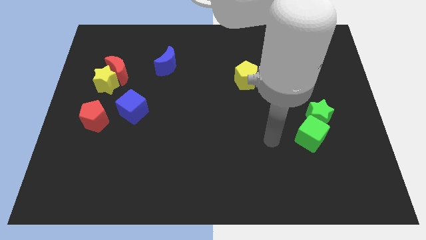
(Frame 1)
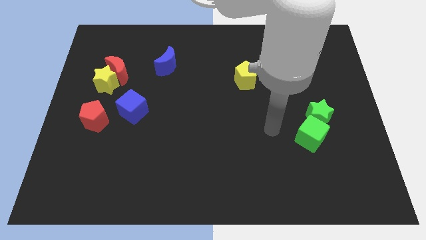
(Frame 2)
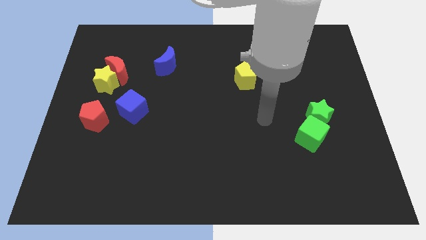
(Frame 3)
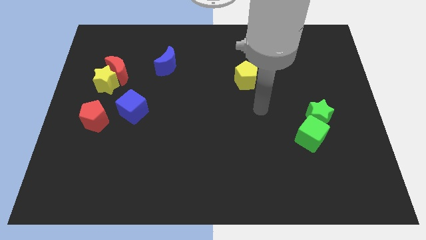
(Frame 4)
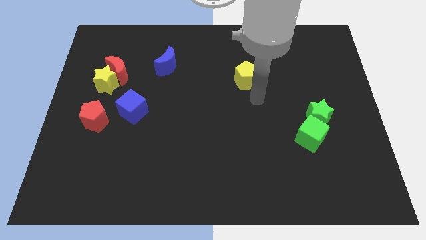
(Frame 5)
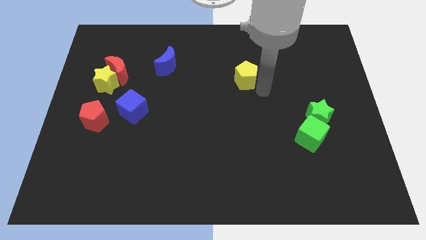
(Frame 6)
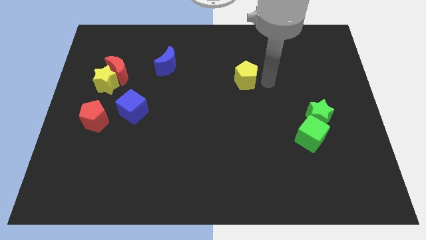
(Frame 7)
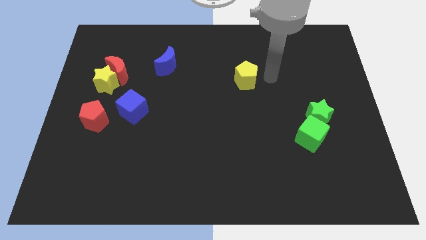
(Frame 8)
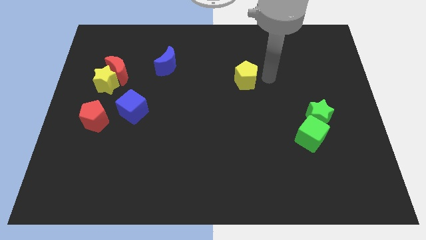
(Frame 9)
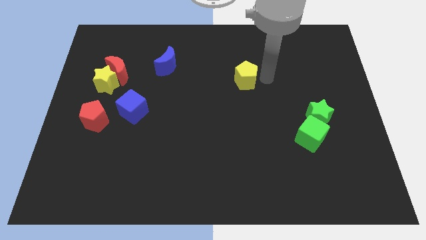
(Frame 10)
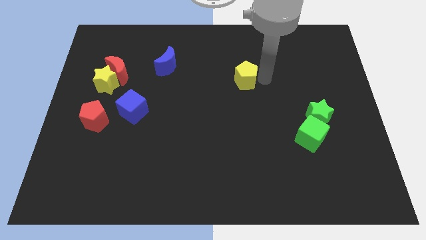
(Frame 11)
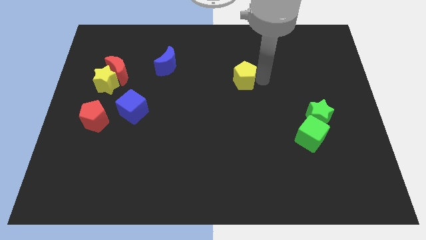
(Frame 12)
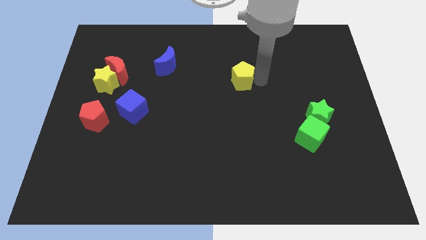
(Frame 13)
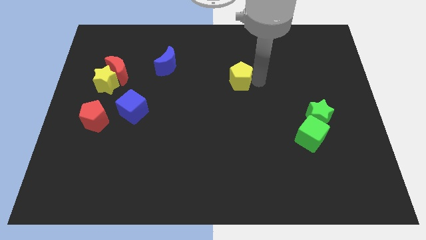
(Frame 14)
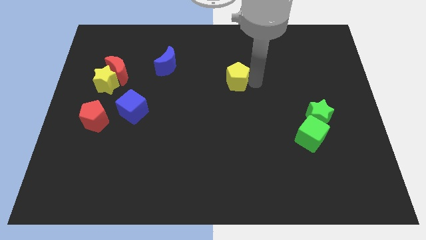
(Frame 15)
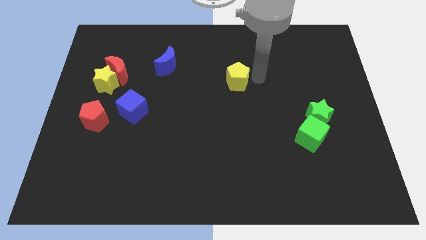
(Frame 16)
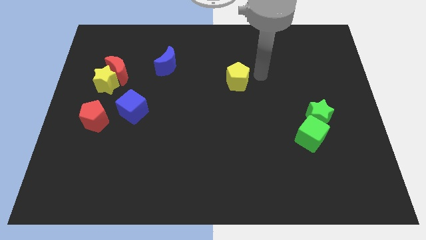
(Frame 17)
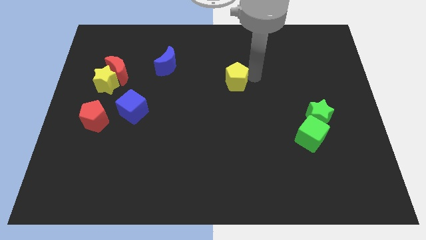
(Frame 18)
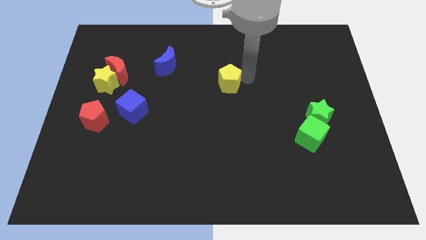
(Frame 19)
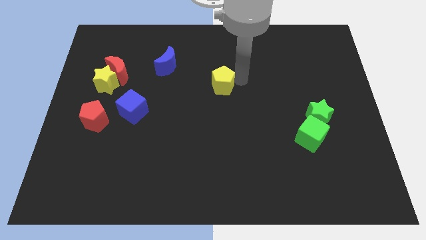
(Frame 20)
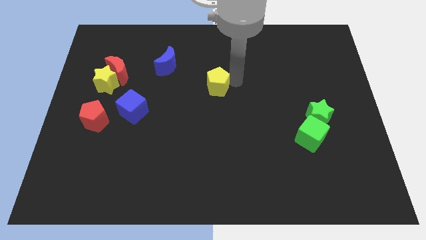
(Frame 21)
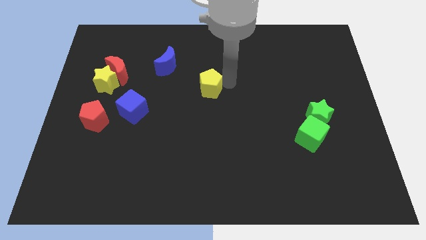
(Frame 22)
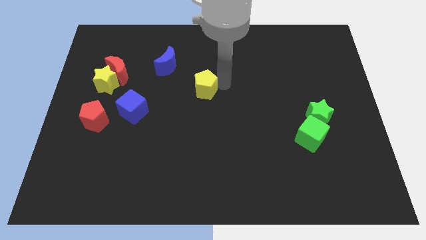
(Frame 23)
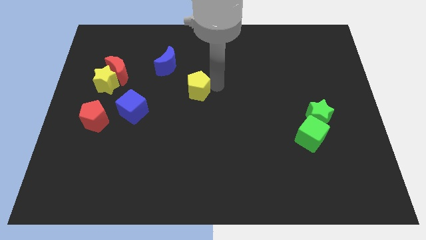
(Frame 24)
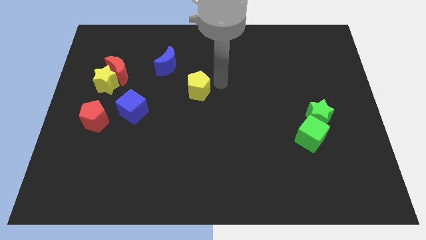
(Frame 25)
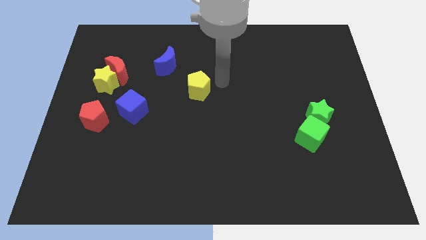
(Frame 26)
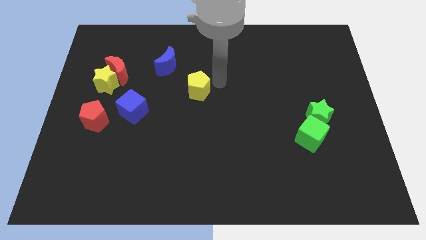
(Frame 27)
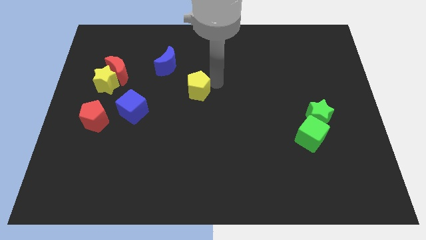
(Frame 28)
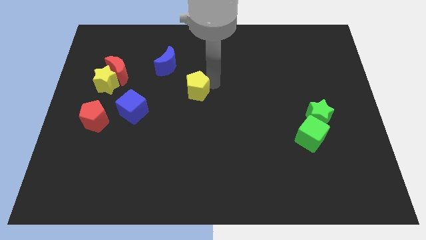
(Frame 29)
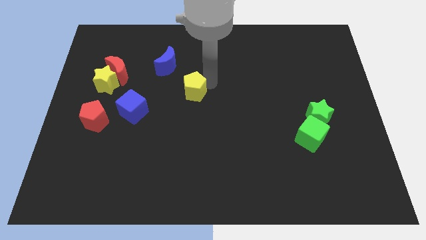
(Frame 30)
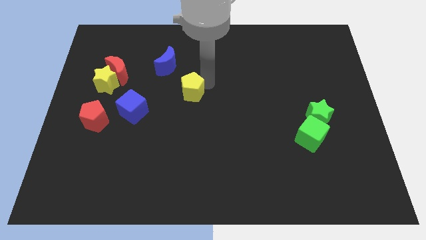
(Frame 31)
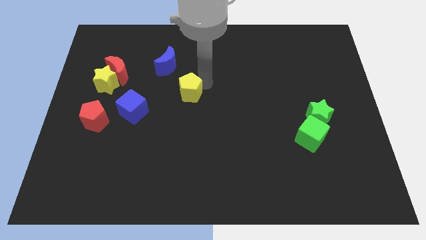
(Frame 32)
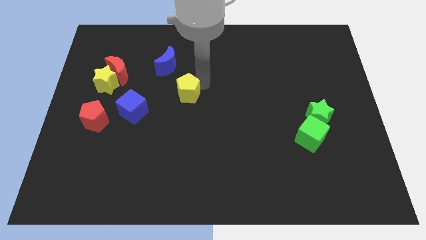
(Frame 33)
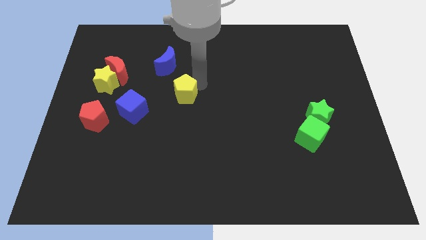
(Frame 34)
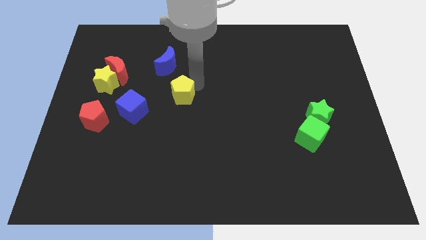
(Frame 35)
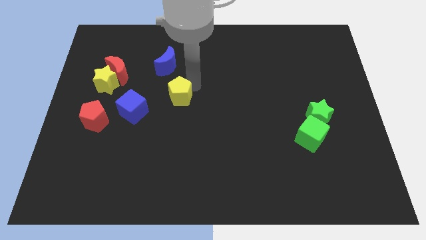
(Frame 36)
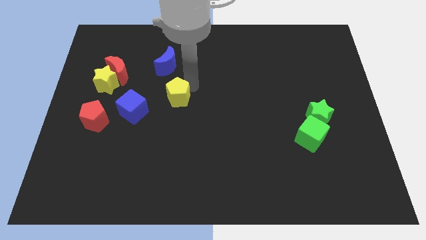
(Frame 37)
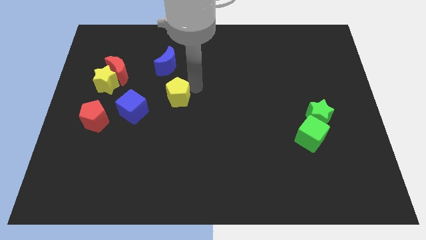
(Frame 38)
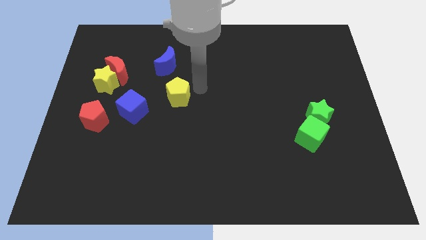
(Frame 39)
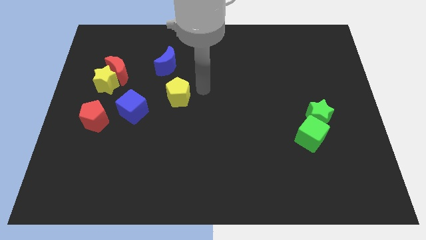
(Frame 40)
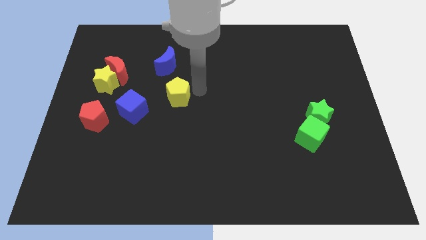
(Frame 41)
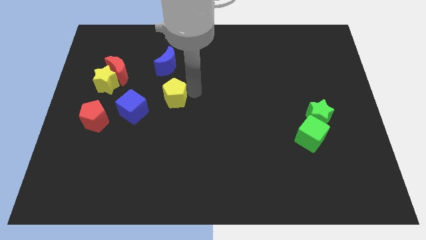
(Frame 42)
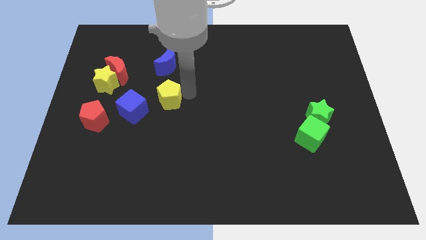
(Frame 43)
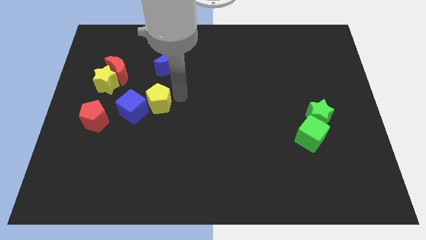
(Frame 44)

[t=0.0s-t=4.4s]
put the yellow pentagon next to the blue cube

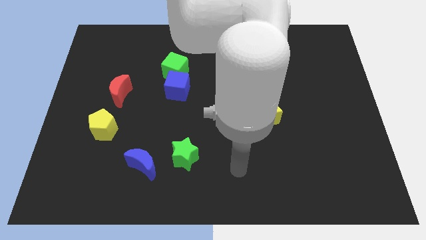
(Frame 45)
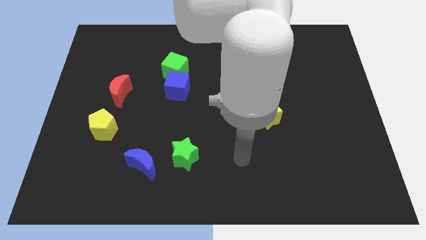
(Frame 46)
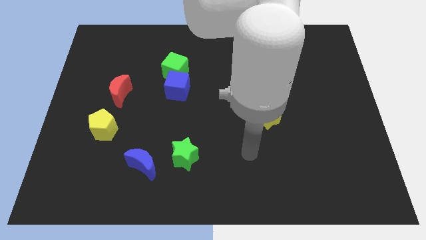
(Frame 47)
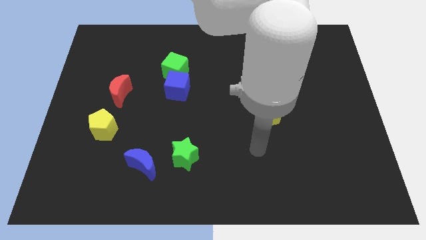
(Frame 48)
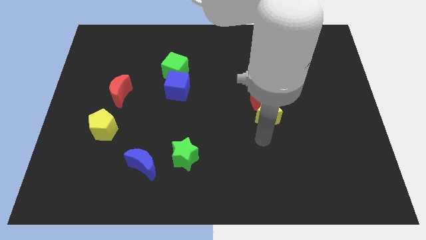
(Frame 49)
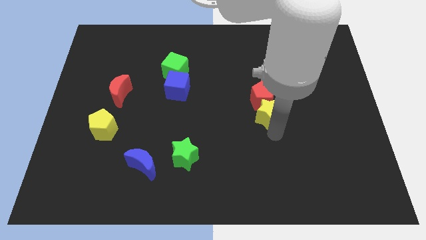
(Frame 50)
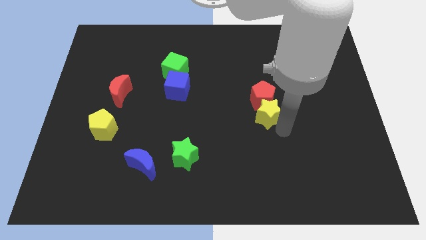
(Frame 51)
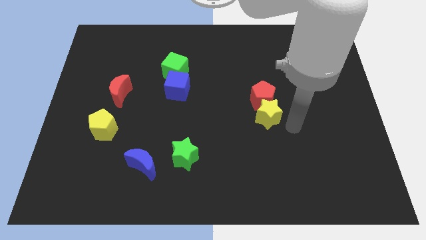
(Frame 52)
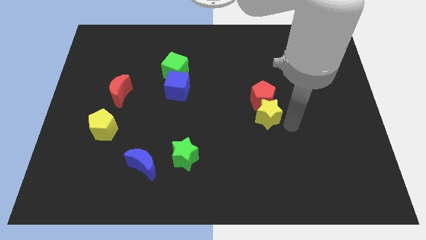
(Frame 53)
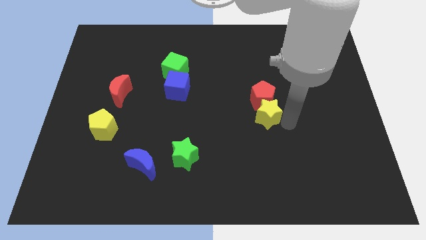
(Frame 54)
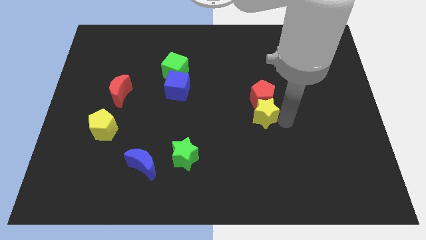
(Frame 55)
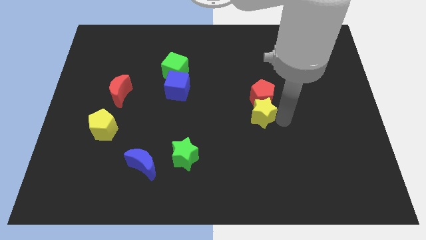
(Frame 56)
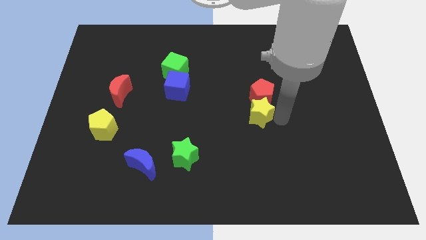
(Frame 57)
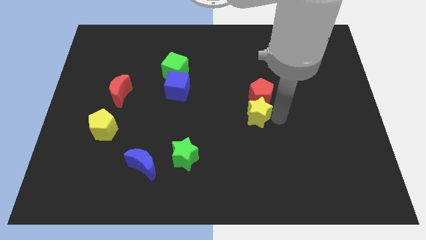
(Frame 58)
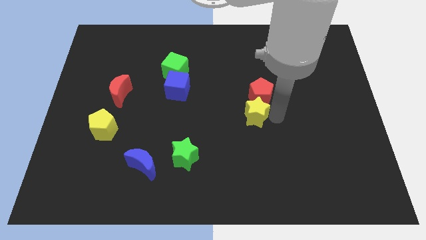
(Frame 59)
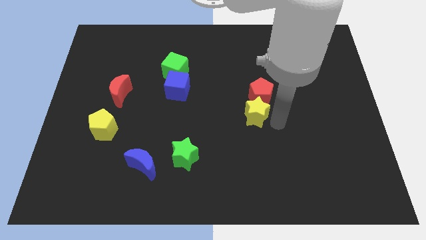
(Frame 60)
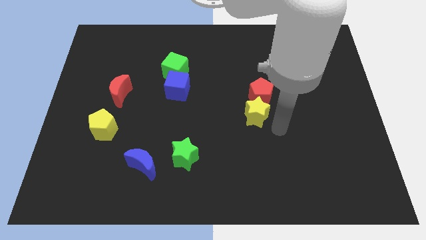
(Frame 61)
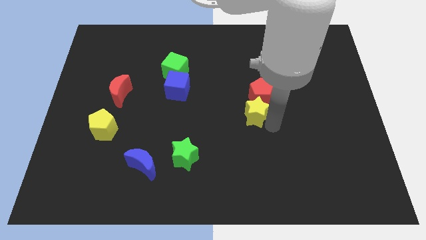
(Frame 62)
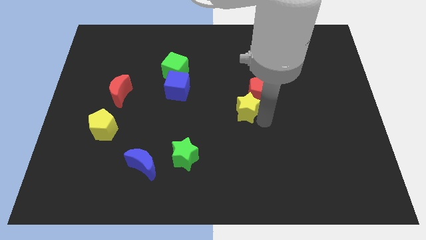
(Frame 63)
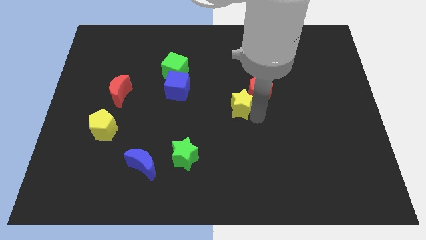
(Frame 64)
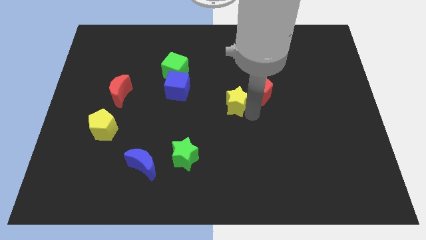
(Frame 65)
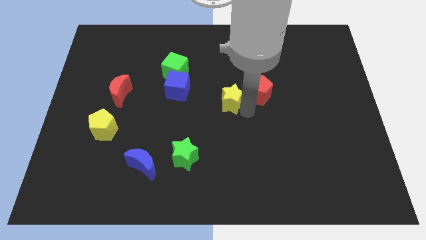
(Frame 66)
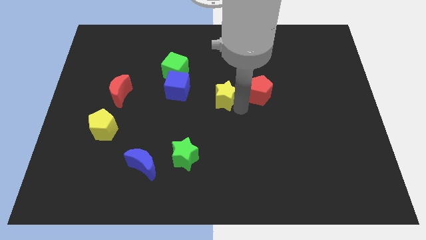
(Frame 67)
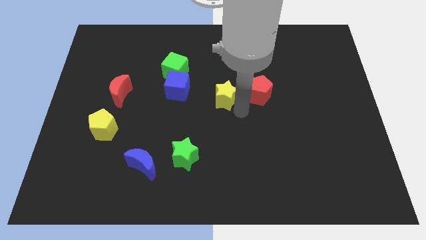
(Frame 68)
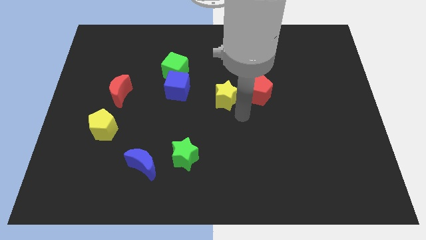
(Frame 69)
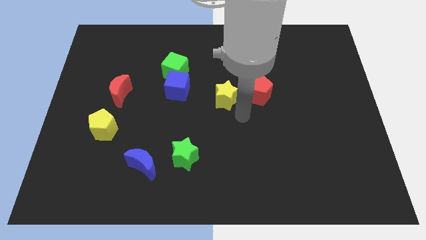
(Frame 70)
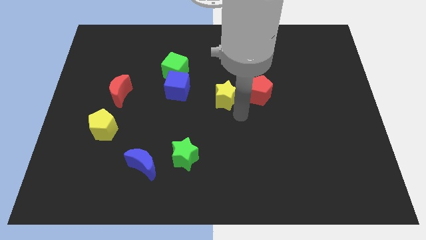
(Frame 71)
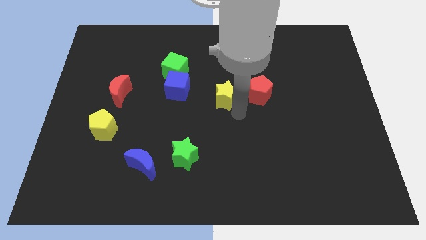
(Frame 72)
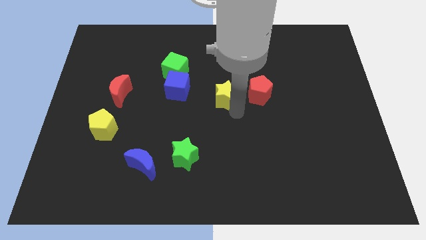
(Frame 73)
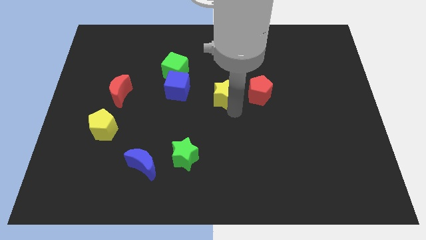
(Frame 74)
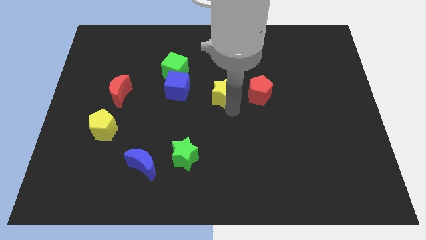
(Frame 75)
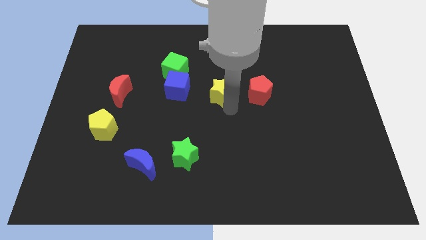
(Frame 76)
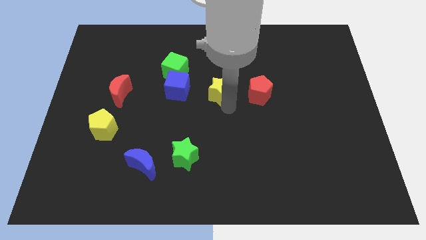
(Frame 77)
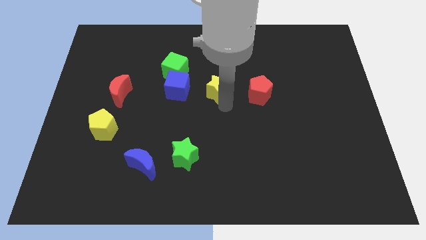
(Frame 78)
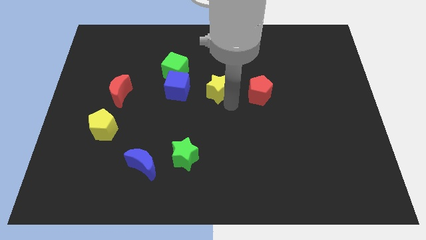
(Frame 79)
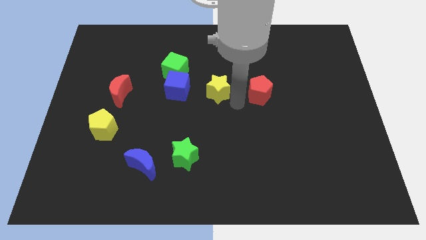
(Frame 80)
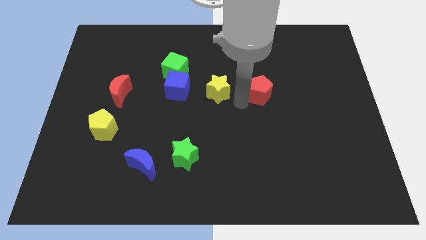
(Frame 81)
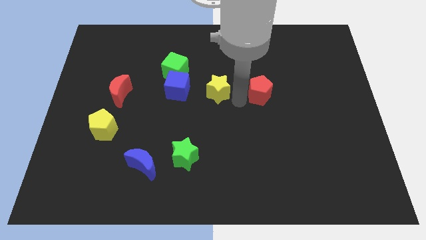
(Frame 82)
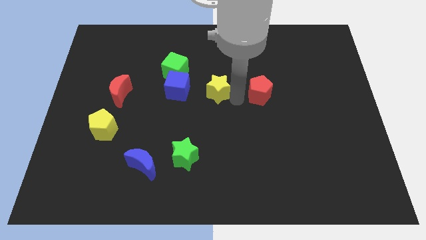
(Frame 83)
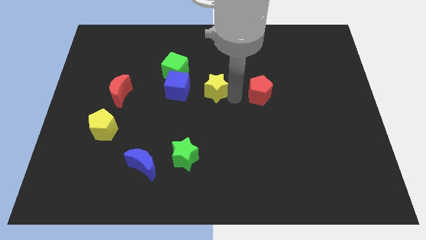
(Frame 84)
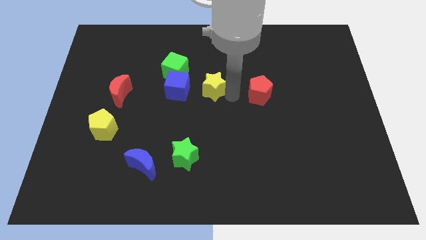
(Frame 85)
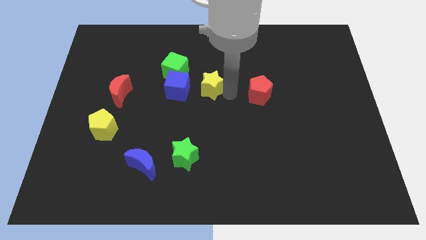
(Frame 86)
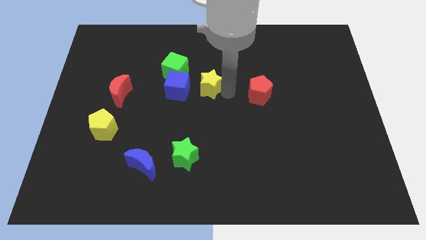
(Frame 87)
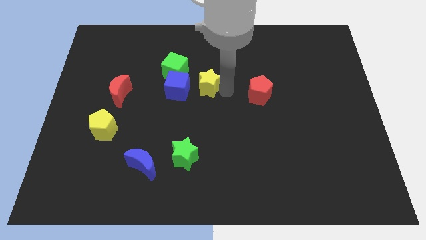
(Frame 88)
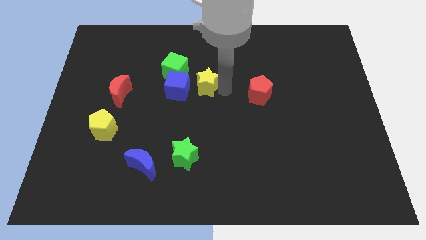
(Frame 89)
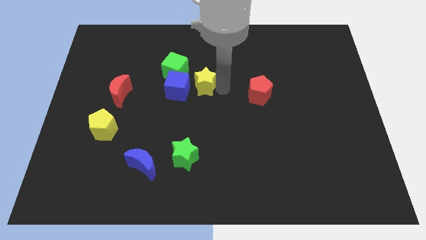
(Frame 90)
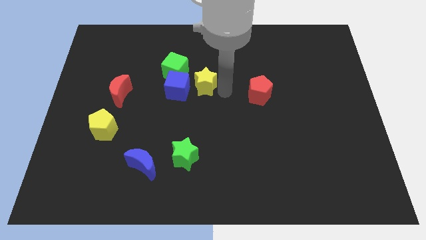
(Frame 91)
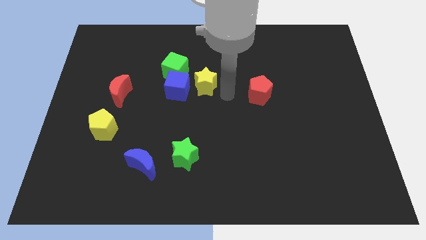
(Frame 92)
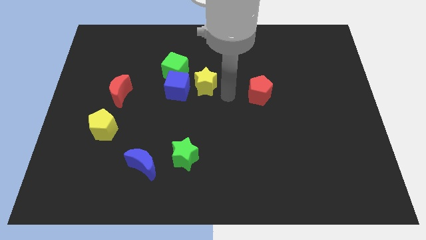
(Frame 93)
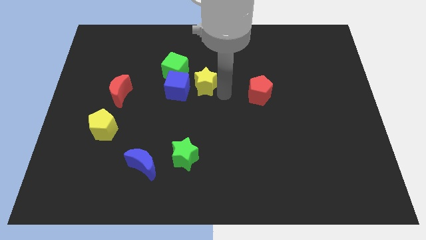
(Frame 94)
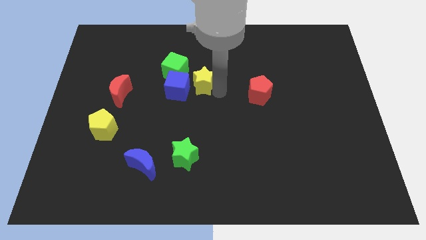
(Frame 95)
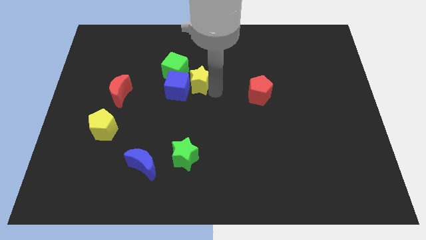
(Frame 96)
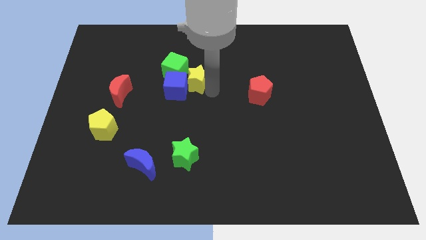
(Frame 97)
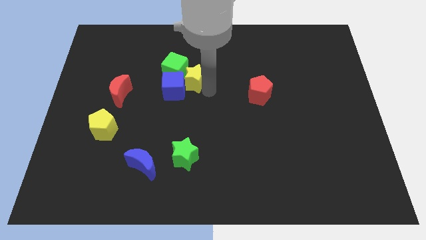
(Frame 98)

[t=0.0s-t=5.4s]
push the yellow star close to the green cube
